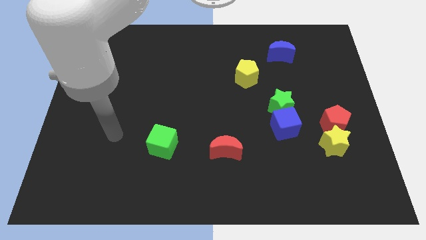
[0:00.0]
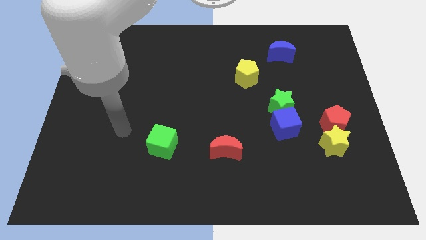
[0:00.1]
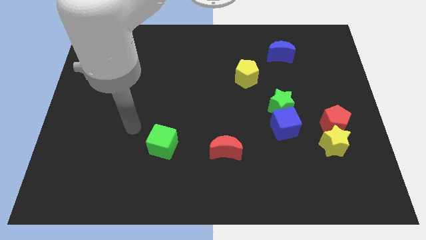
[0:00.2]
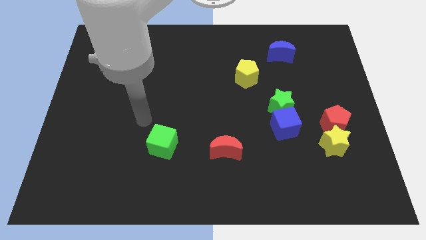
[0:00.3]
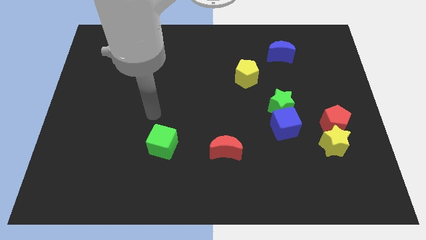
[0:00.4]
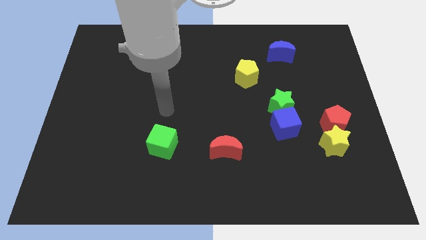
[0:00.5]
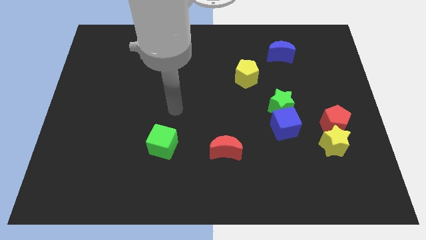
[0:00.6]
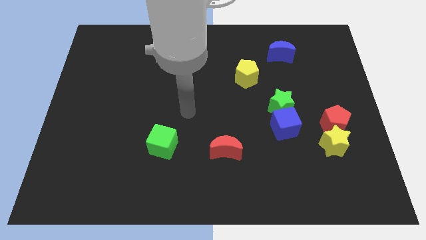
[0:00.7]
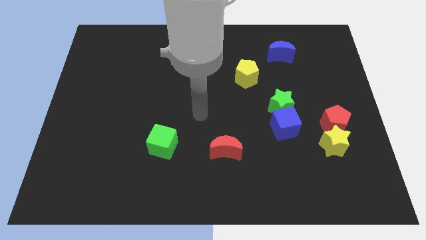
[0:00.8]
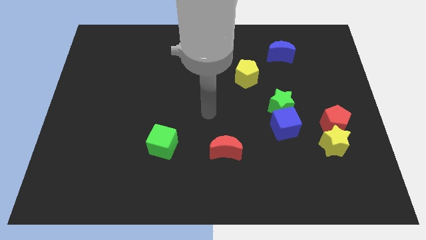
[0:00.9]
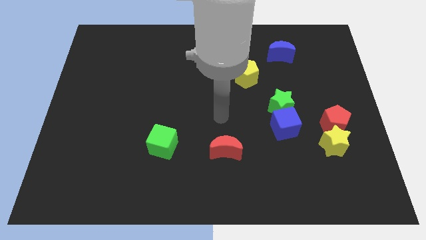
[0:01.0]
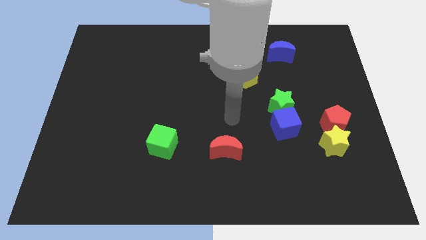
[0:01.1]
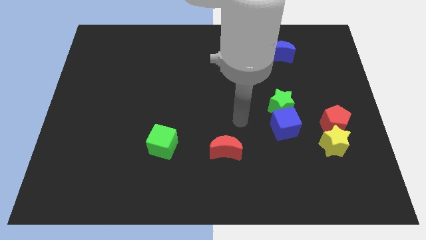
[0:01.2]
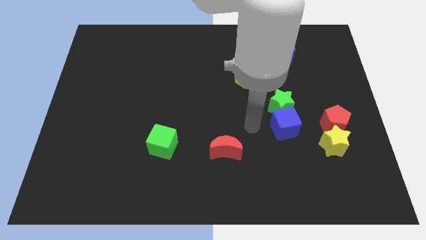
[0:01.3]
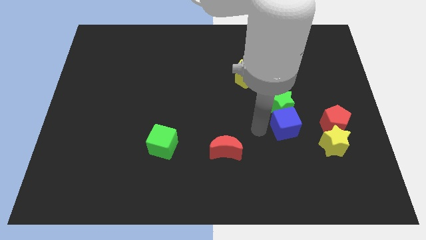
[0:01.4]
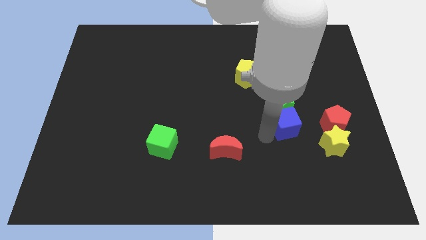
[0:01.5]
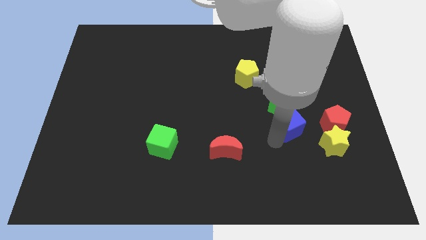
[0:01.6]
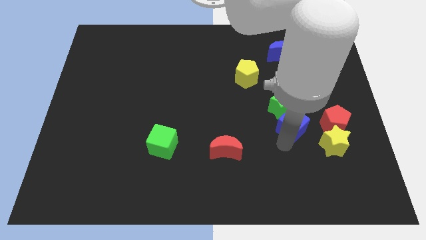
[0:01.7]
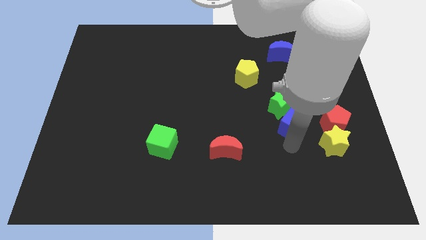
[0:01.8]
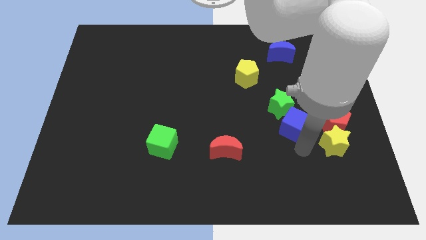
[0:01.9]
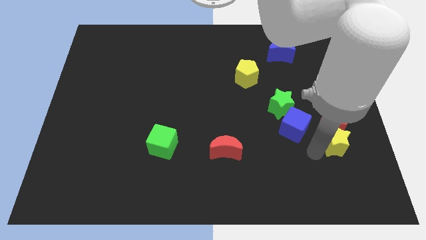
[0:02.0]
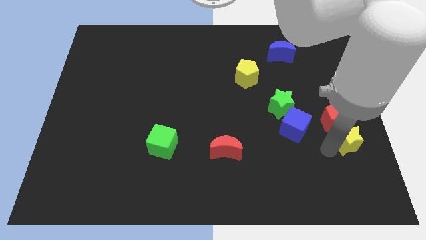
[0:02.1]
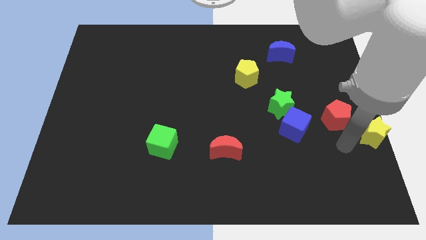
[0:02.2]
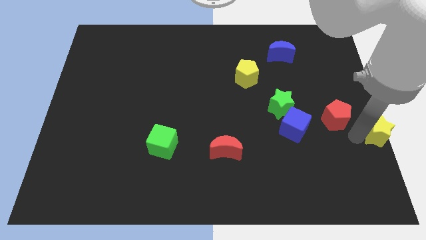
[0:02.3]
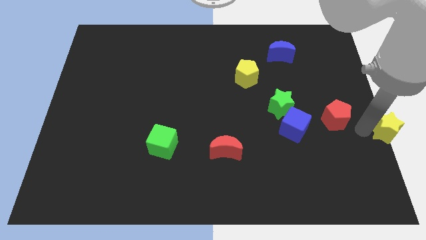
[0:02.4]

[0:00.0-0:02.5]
pull the red pentagon apart from the yellow star

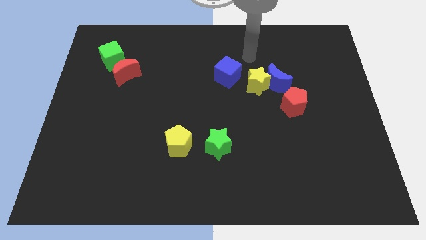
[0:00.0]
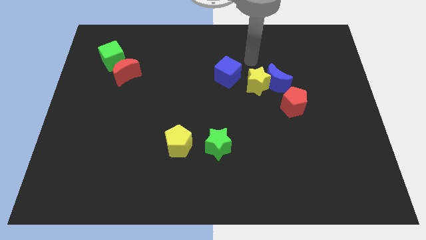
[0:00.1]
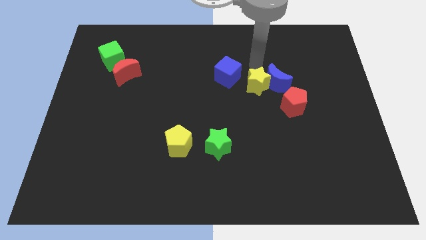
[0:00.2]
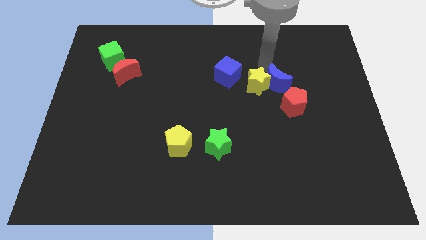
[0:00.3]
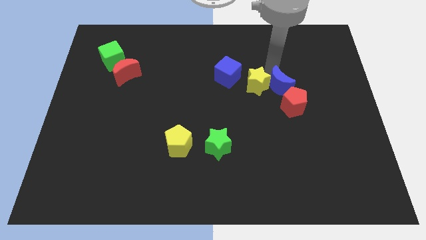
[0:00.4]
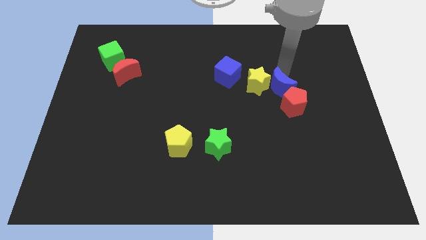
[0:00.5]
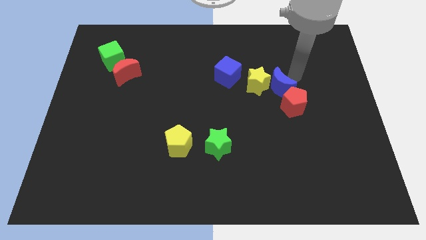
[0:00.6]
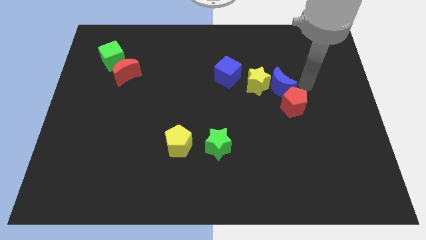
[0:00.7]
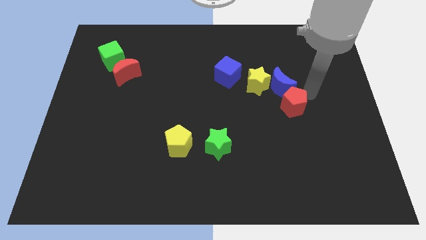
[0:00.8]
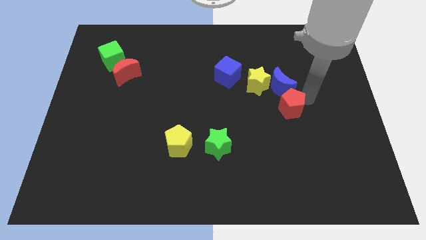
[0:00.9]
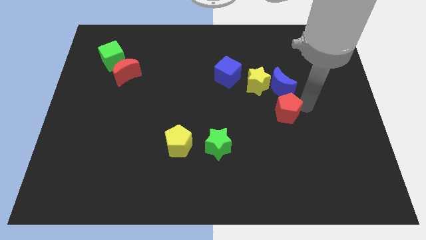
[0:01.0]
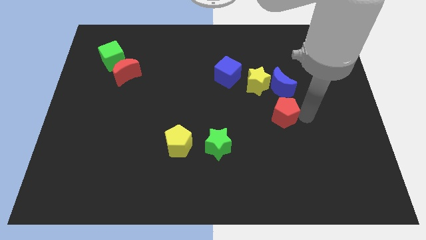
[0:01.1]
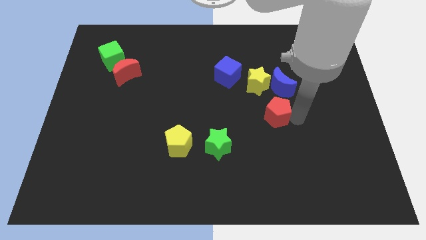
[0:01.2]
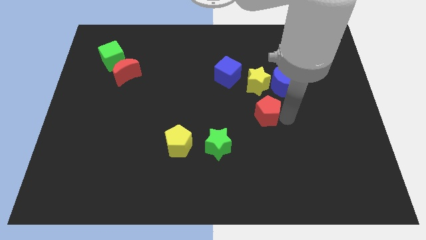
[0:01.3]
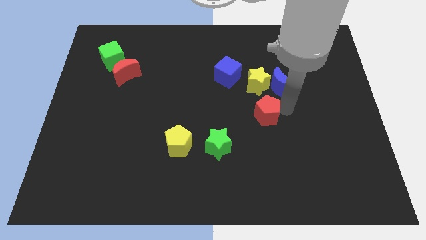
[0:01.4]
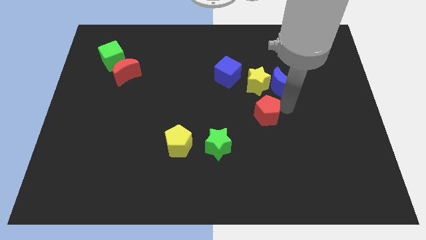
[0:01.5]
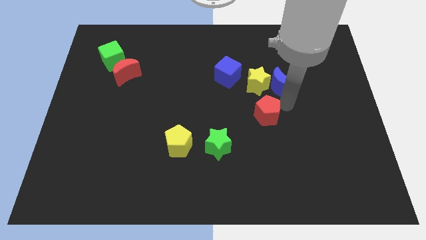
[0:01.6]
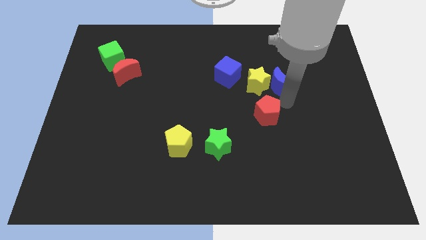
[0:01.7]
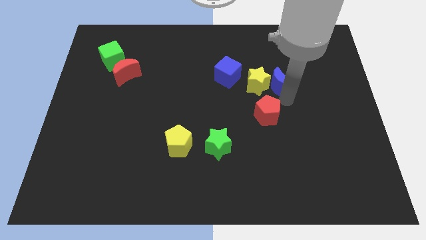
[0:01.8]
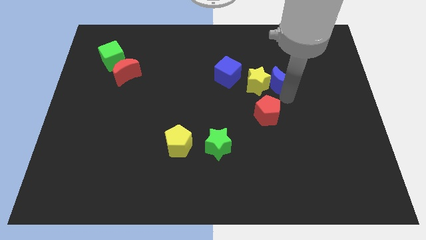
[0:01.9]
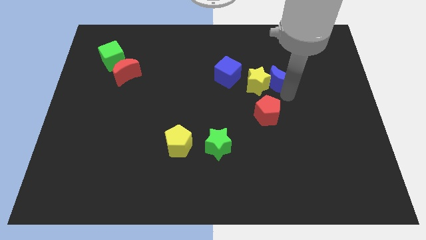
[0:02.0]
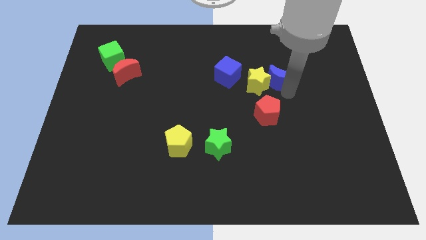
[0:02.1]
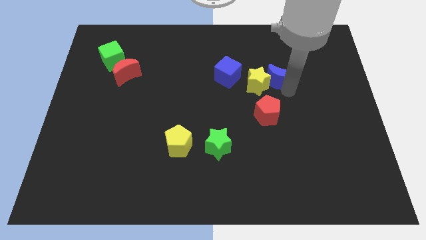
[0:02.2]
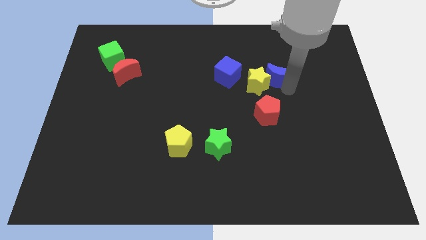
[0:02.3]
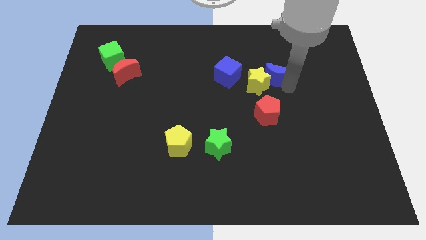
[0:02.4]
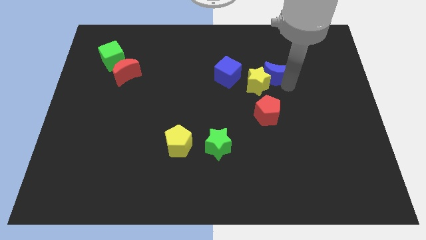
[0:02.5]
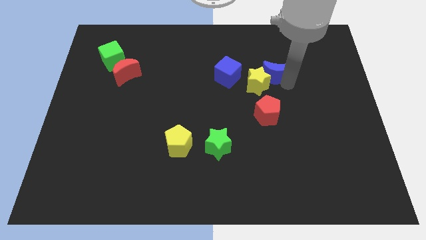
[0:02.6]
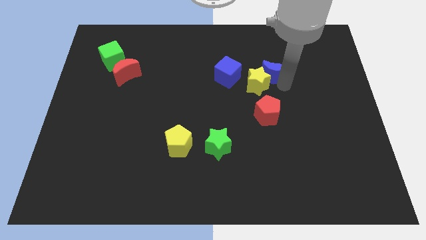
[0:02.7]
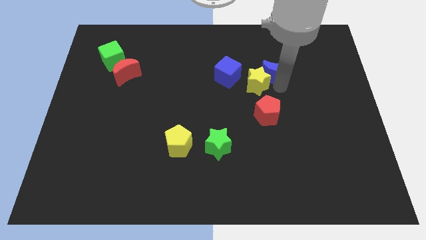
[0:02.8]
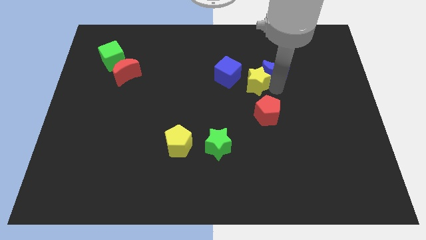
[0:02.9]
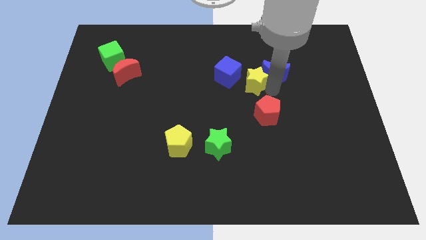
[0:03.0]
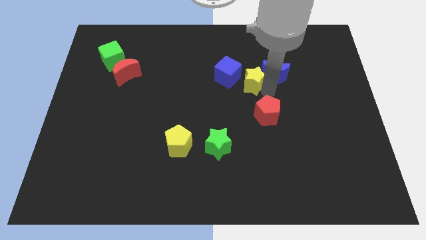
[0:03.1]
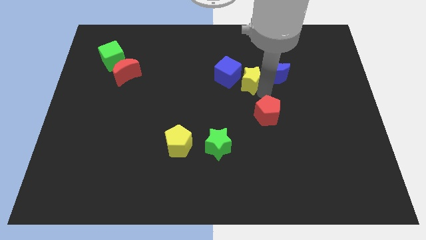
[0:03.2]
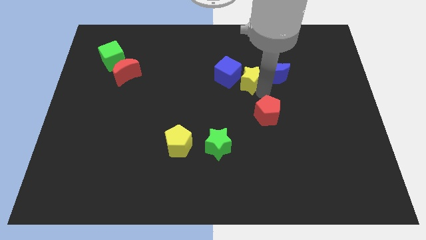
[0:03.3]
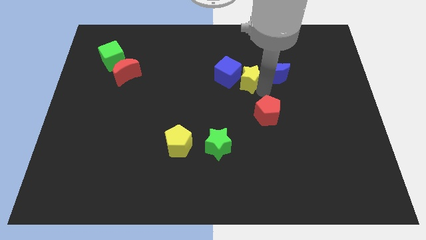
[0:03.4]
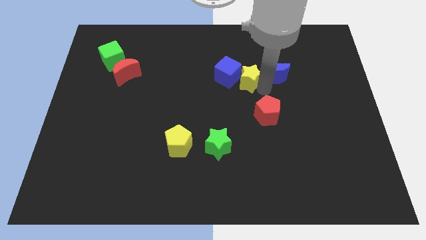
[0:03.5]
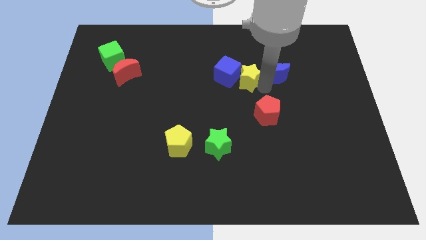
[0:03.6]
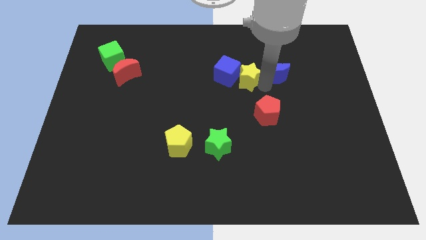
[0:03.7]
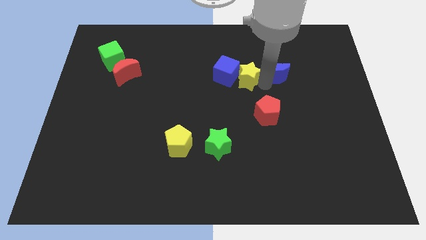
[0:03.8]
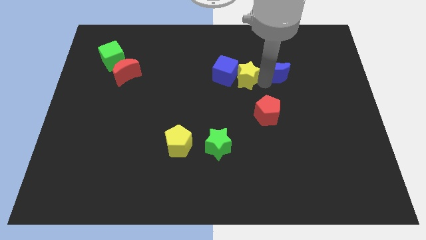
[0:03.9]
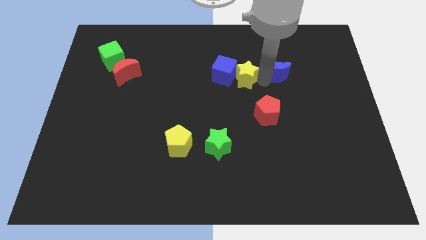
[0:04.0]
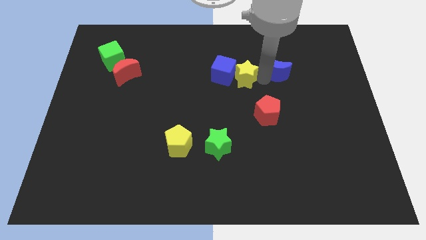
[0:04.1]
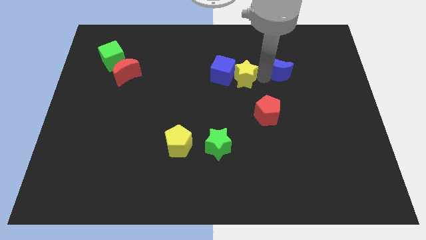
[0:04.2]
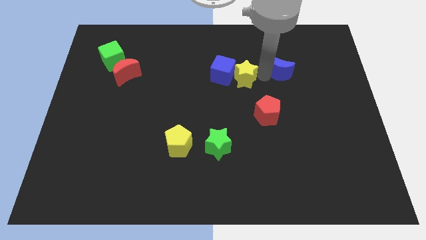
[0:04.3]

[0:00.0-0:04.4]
move the blue moon away from the yellow star and red pentagon

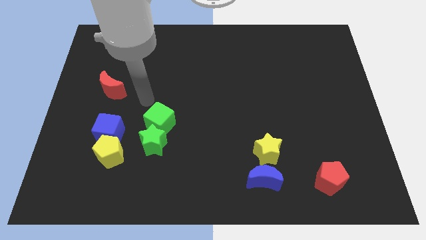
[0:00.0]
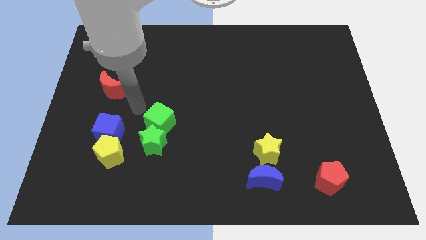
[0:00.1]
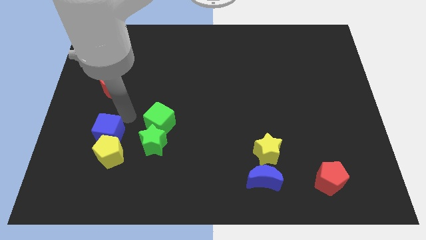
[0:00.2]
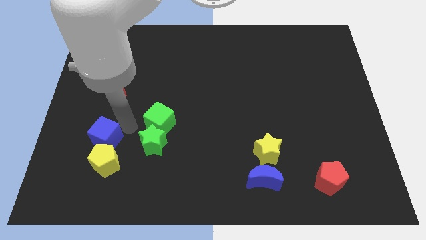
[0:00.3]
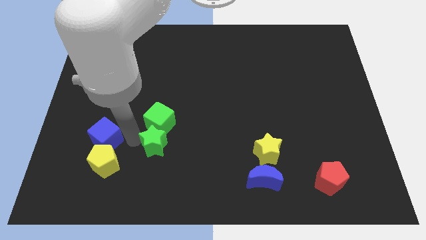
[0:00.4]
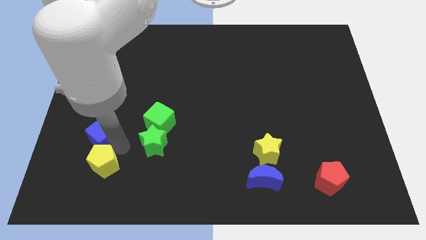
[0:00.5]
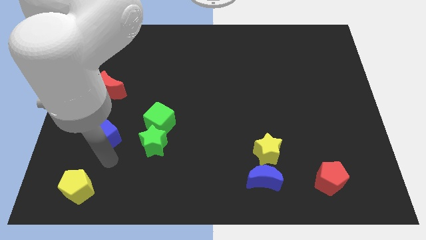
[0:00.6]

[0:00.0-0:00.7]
pull the blue cube apart from the yellow pentagon

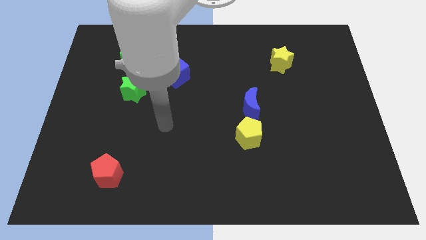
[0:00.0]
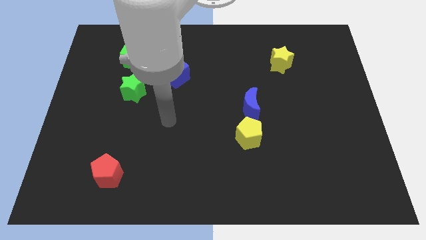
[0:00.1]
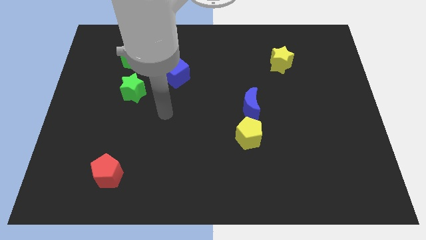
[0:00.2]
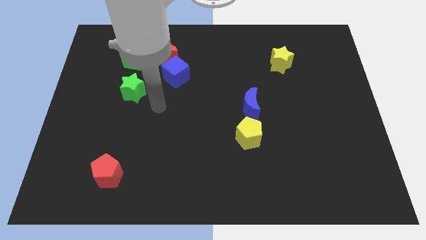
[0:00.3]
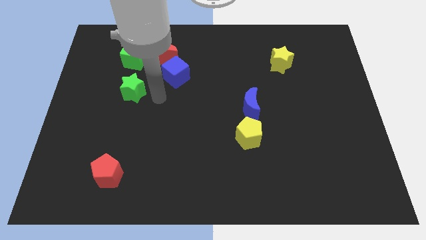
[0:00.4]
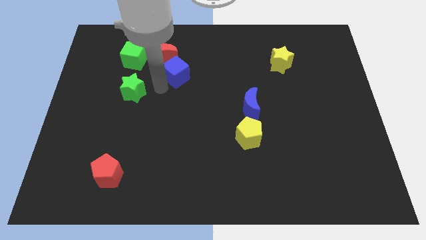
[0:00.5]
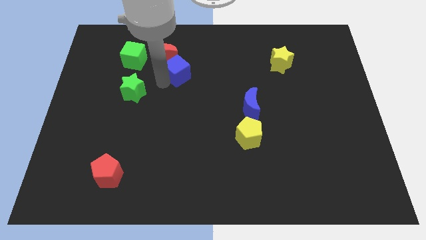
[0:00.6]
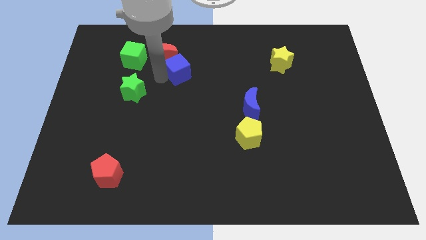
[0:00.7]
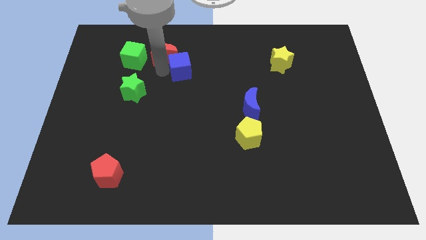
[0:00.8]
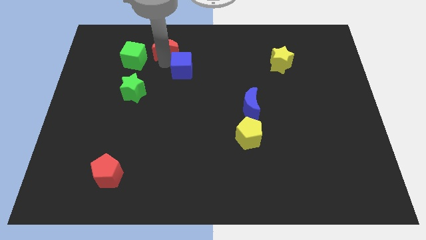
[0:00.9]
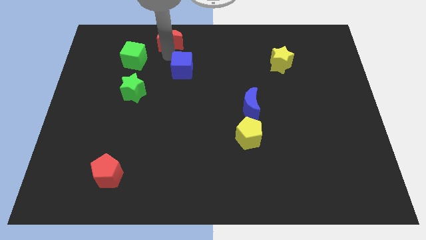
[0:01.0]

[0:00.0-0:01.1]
pull the blue cube apart from the red moon

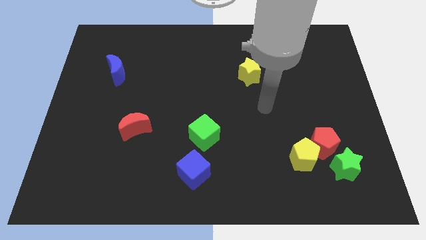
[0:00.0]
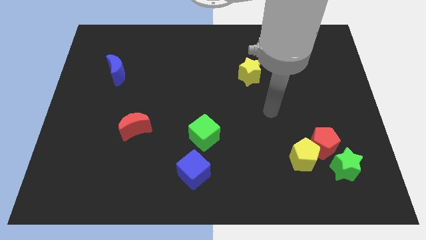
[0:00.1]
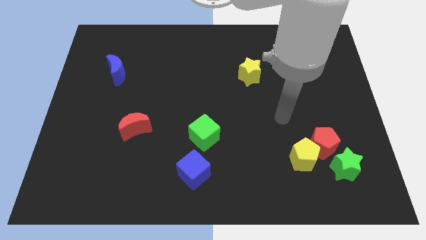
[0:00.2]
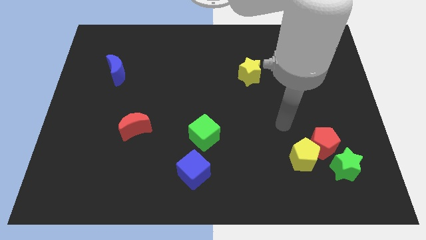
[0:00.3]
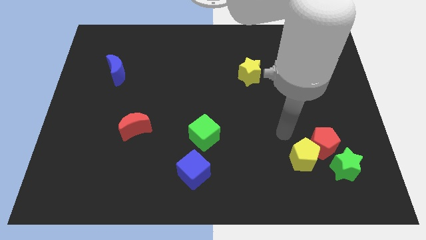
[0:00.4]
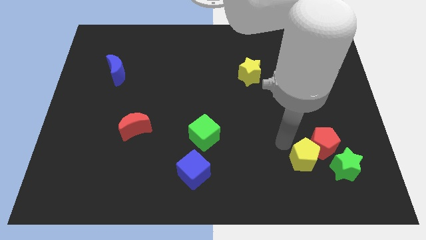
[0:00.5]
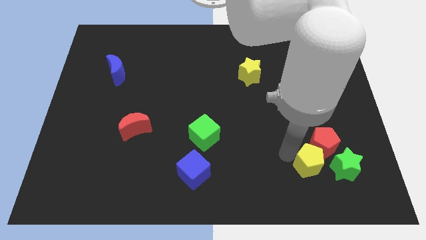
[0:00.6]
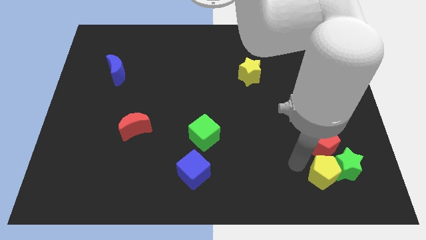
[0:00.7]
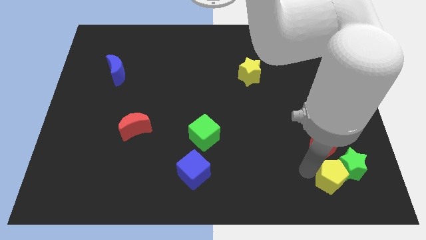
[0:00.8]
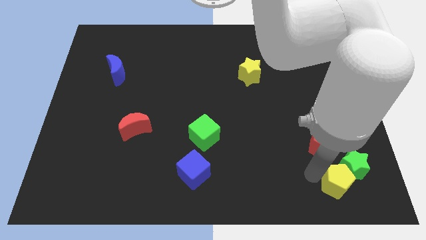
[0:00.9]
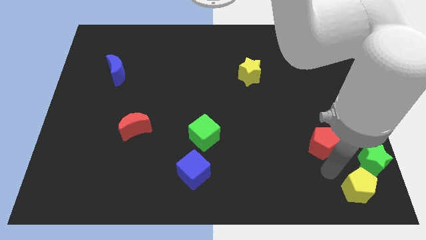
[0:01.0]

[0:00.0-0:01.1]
move the red pentagon away from the yellow pentagon and green star
